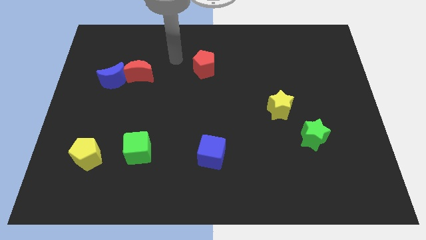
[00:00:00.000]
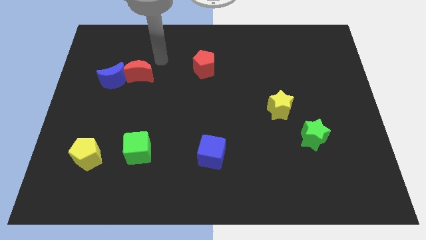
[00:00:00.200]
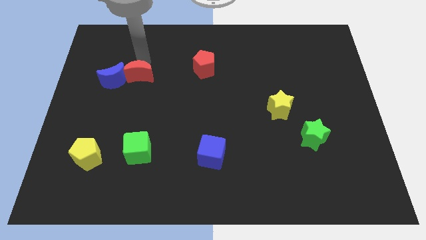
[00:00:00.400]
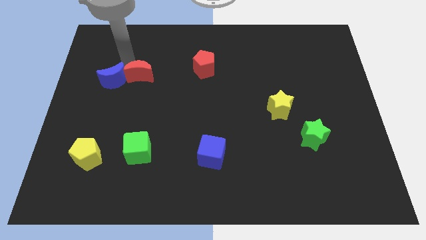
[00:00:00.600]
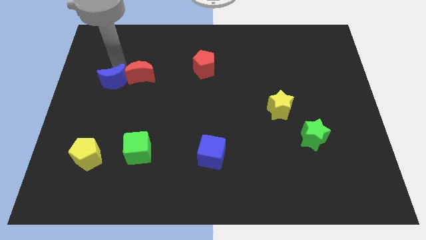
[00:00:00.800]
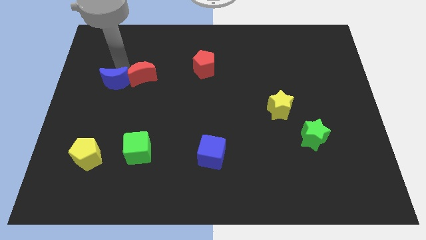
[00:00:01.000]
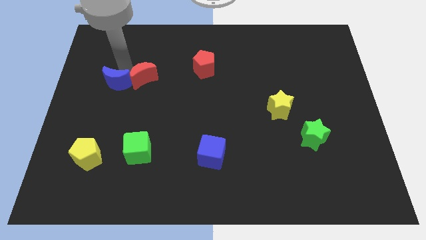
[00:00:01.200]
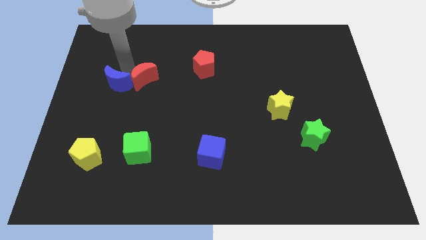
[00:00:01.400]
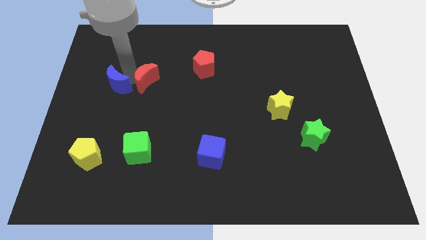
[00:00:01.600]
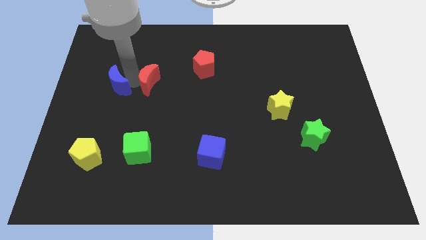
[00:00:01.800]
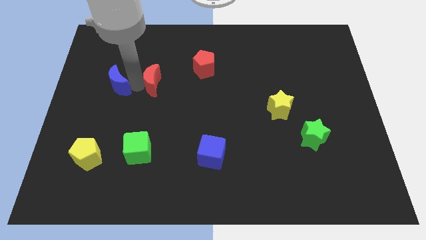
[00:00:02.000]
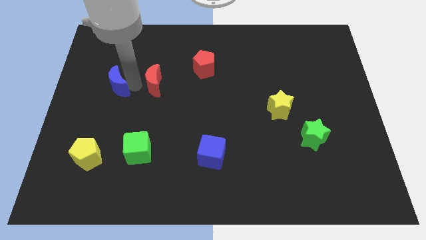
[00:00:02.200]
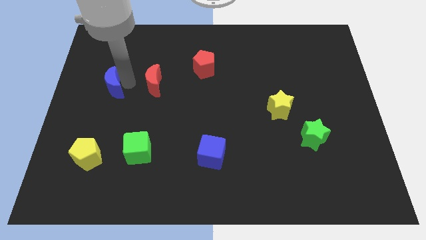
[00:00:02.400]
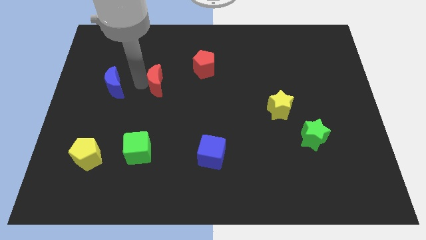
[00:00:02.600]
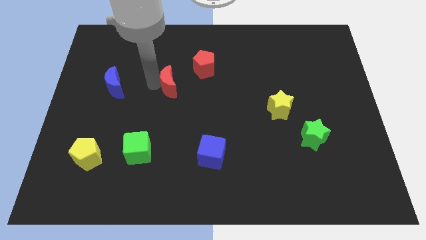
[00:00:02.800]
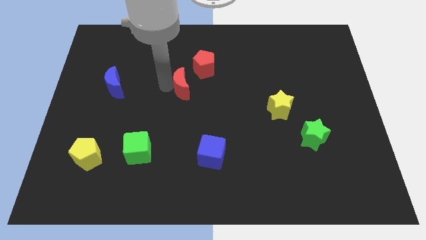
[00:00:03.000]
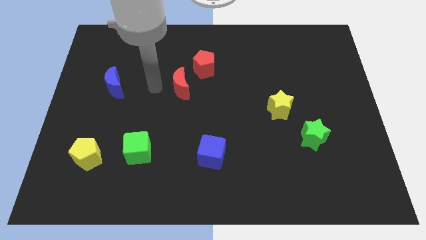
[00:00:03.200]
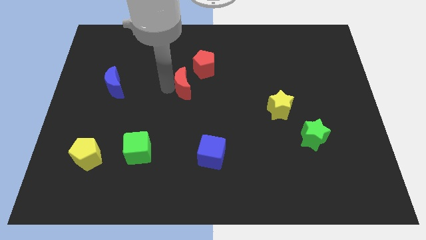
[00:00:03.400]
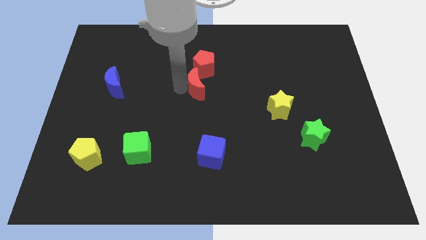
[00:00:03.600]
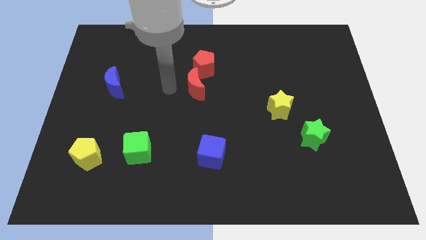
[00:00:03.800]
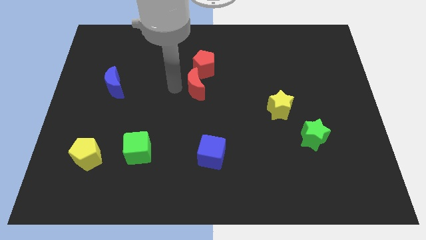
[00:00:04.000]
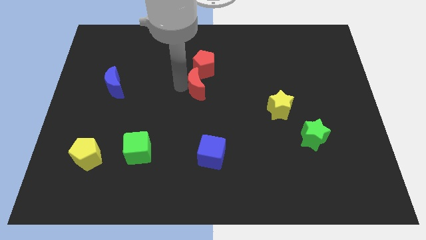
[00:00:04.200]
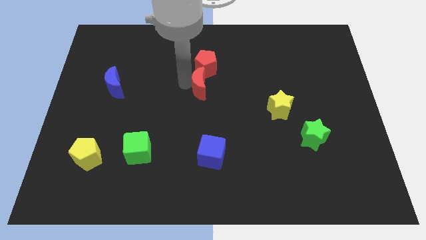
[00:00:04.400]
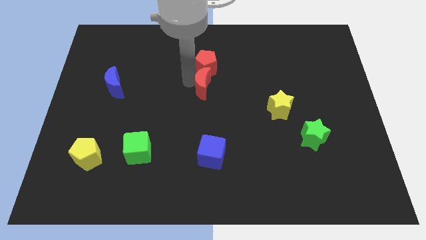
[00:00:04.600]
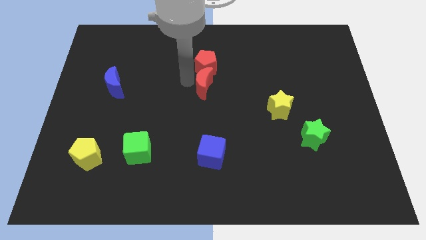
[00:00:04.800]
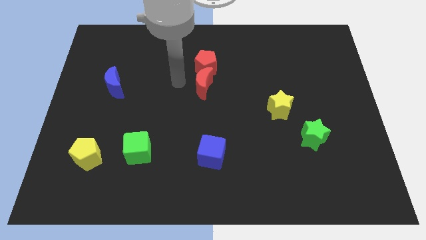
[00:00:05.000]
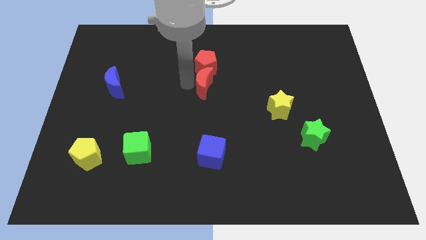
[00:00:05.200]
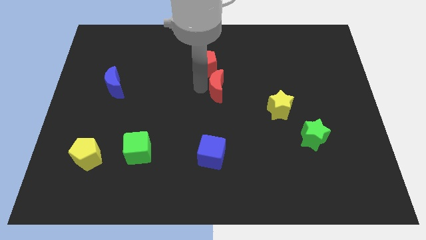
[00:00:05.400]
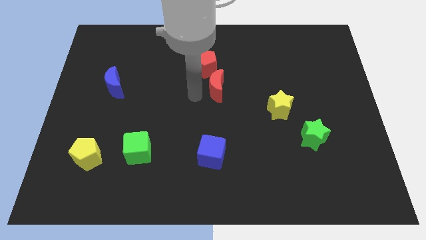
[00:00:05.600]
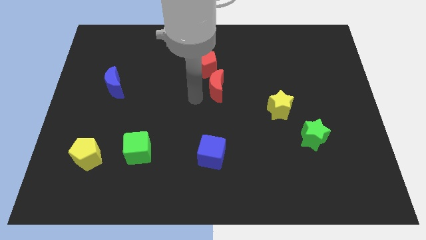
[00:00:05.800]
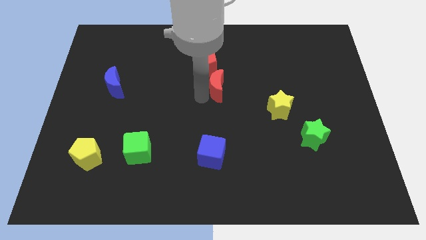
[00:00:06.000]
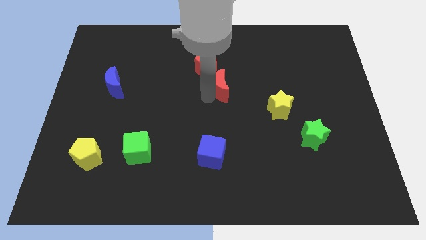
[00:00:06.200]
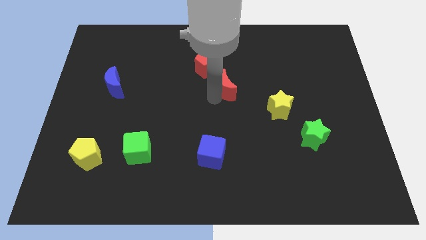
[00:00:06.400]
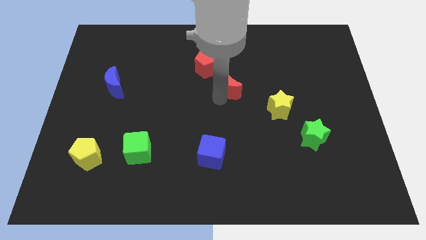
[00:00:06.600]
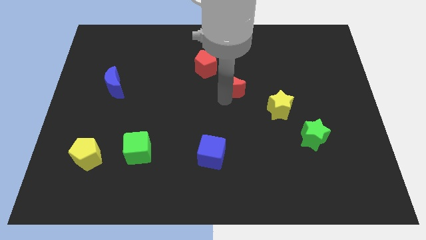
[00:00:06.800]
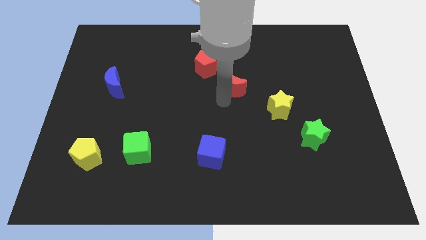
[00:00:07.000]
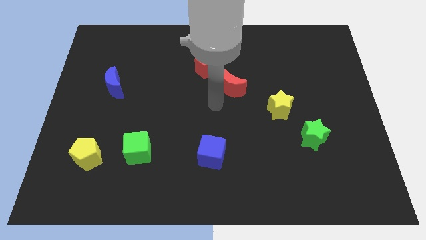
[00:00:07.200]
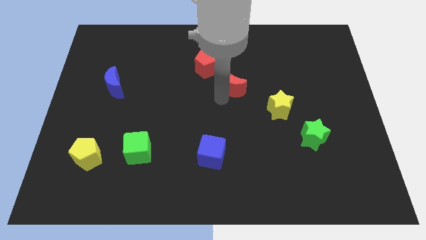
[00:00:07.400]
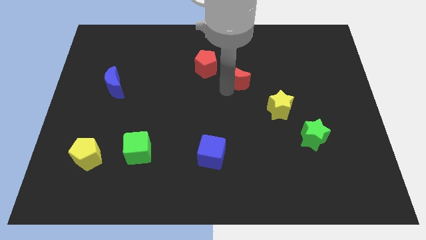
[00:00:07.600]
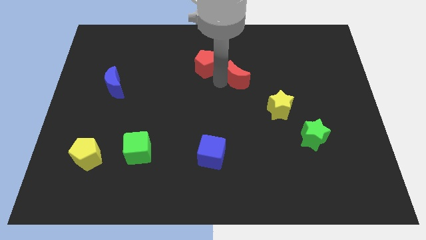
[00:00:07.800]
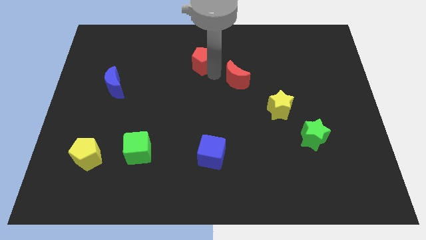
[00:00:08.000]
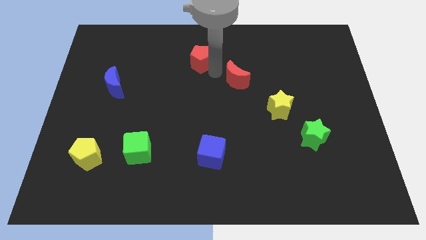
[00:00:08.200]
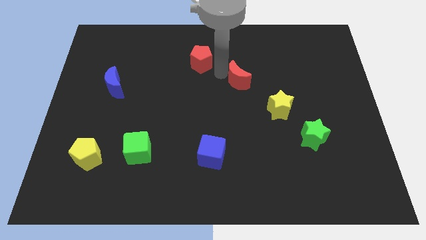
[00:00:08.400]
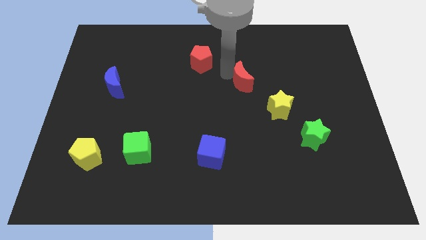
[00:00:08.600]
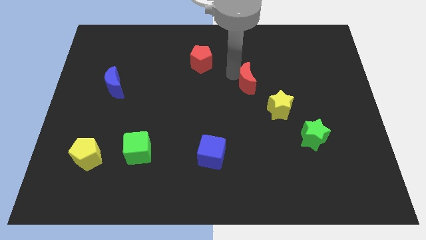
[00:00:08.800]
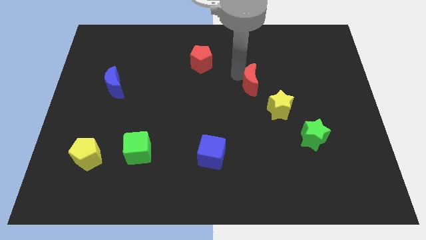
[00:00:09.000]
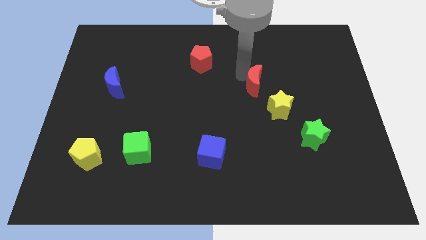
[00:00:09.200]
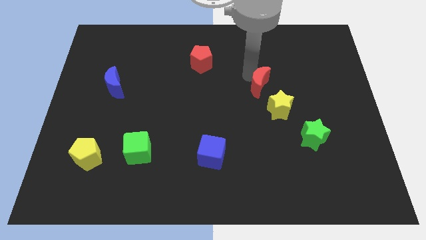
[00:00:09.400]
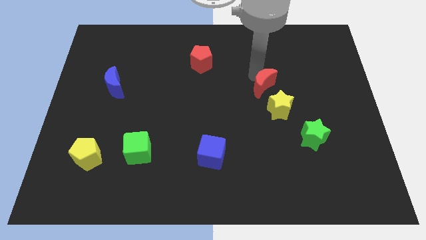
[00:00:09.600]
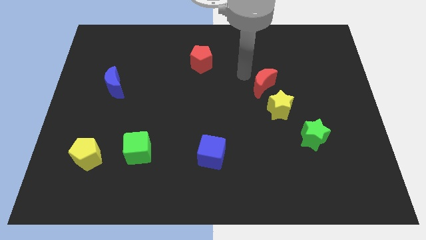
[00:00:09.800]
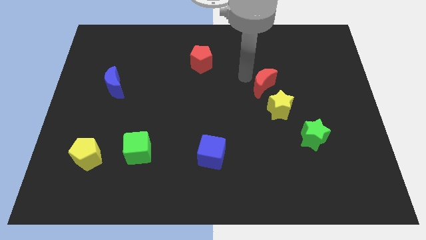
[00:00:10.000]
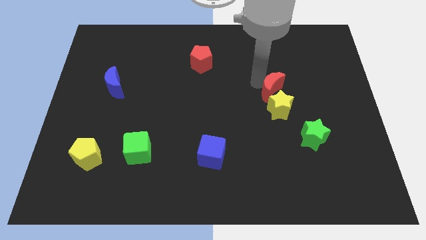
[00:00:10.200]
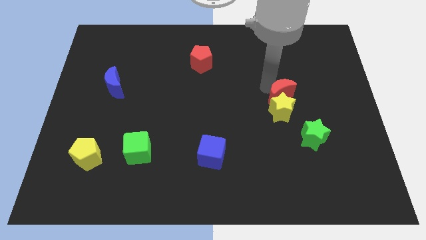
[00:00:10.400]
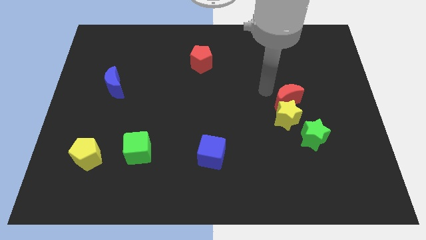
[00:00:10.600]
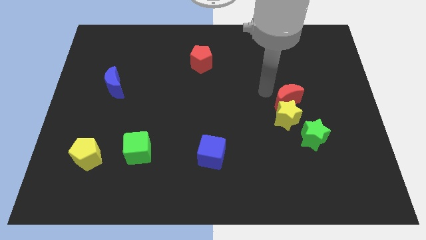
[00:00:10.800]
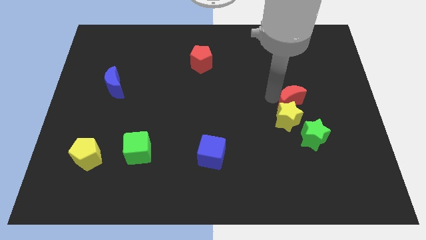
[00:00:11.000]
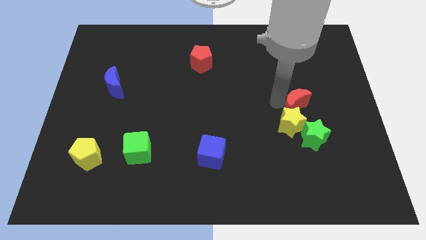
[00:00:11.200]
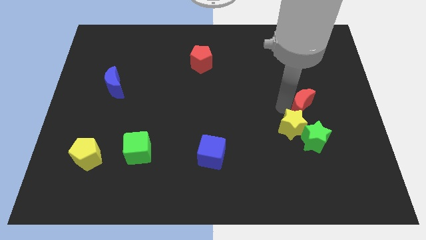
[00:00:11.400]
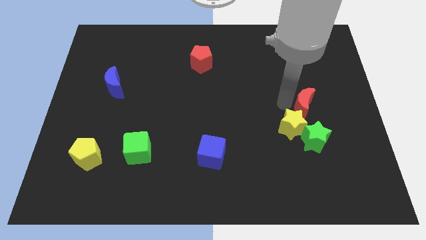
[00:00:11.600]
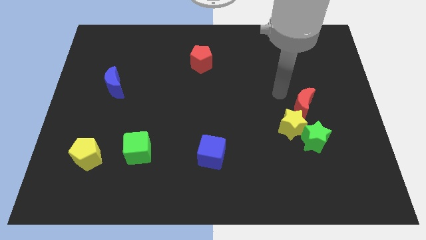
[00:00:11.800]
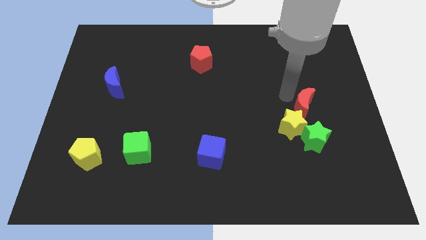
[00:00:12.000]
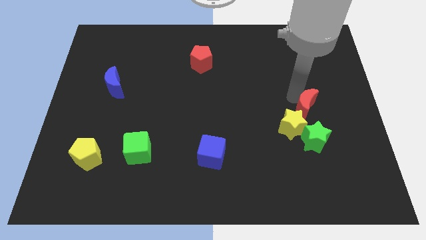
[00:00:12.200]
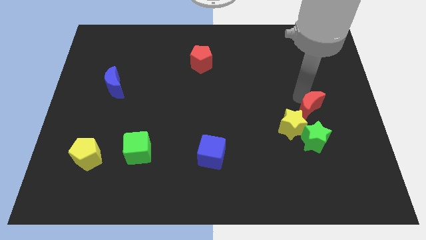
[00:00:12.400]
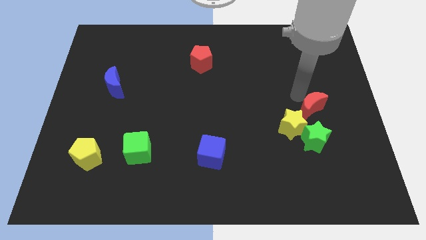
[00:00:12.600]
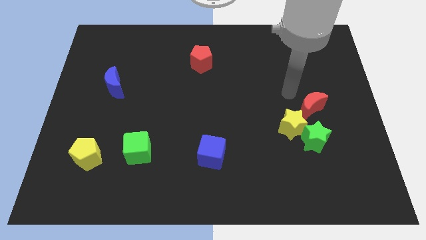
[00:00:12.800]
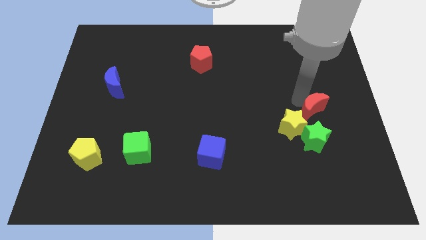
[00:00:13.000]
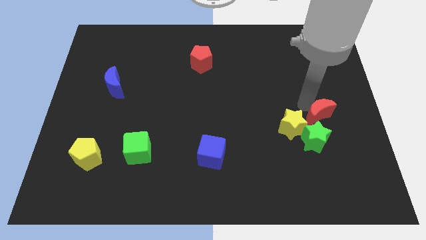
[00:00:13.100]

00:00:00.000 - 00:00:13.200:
move the red moon right of the yellow star

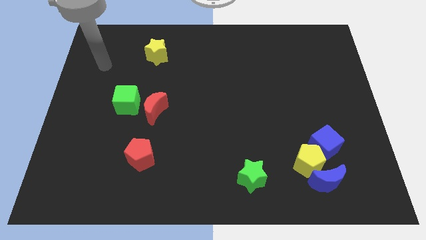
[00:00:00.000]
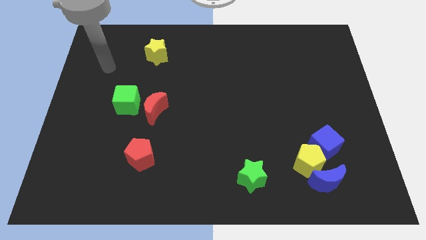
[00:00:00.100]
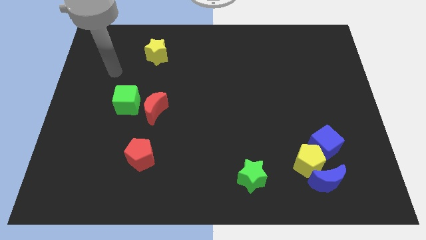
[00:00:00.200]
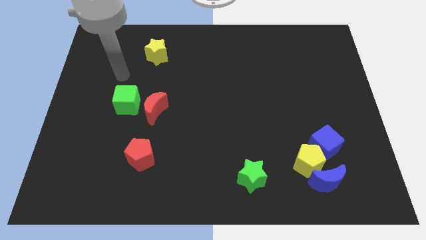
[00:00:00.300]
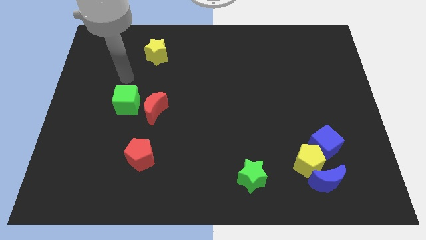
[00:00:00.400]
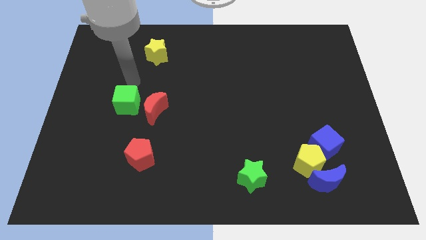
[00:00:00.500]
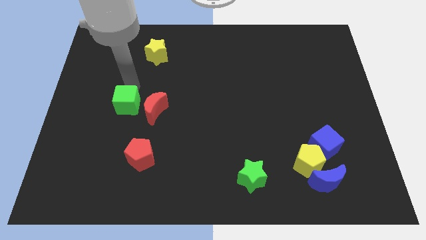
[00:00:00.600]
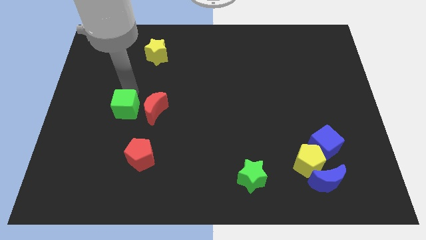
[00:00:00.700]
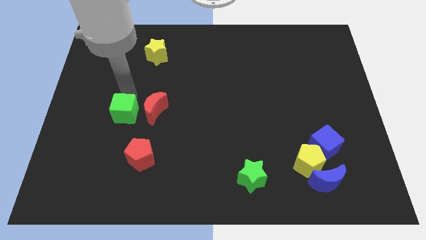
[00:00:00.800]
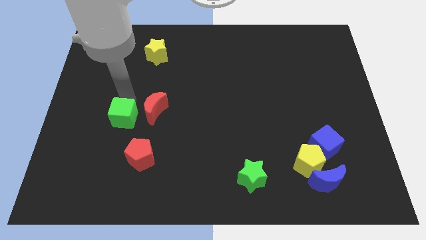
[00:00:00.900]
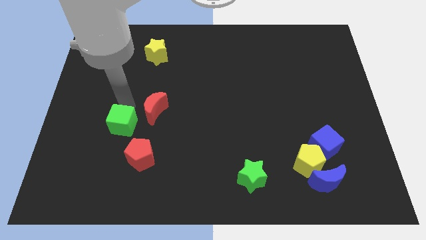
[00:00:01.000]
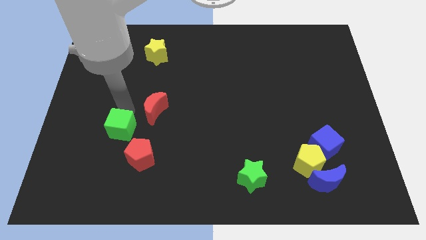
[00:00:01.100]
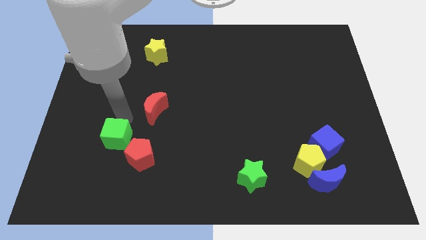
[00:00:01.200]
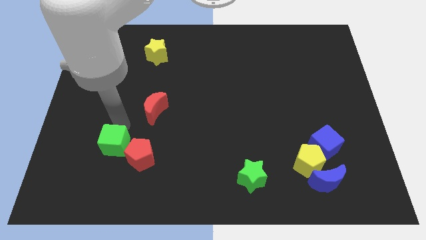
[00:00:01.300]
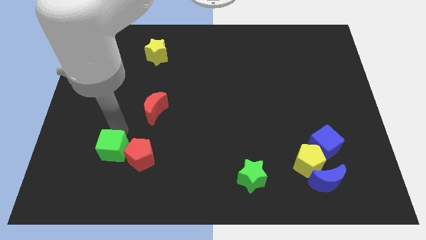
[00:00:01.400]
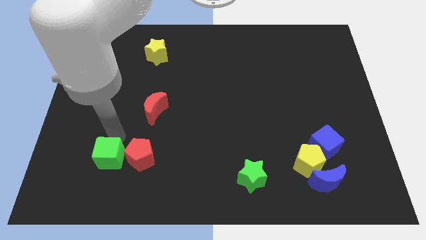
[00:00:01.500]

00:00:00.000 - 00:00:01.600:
slide the green cube diagonally down and to the left of the red pentagon
